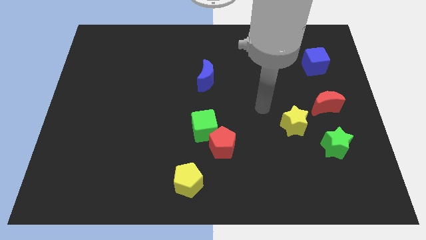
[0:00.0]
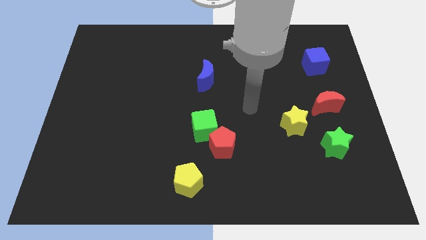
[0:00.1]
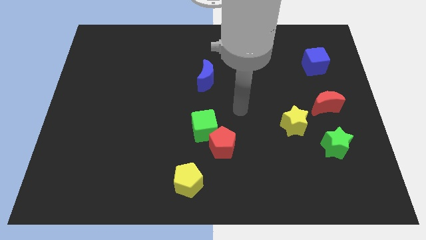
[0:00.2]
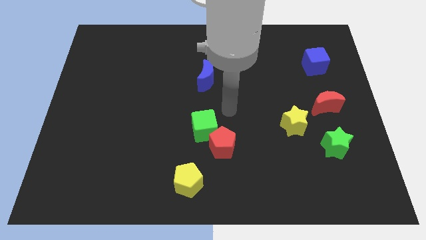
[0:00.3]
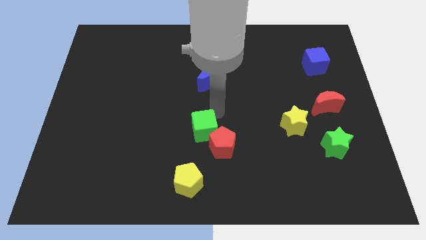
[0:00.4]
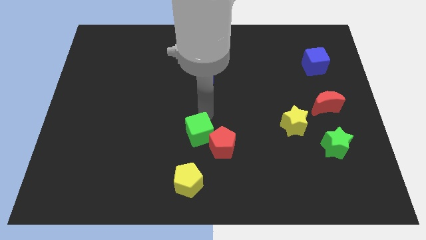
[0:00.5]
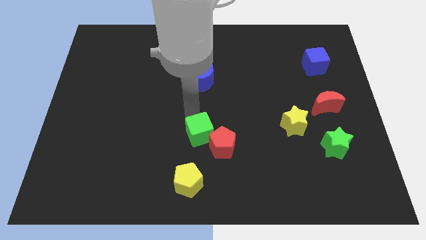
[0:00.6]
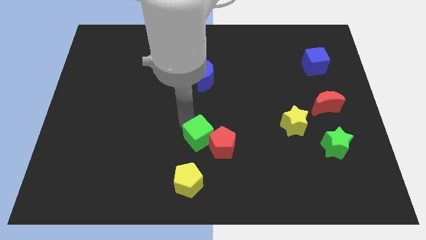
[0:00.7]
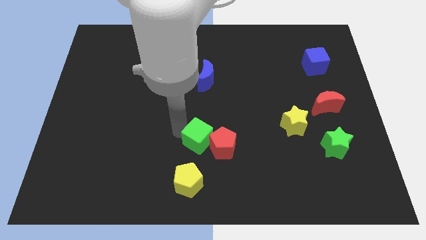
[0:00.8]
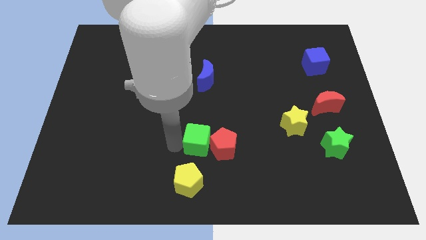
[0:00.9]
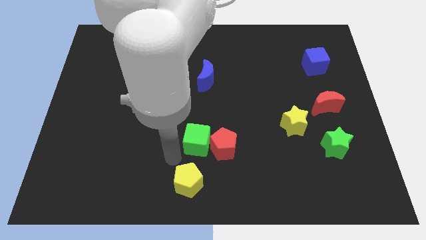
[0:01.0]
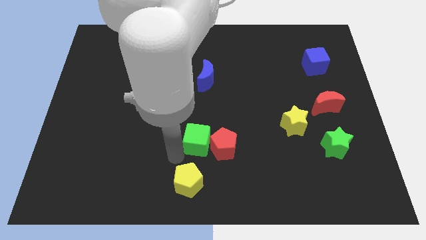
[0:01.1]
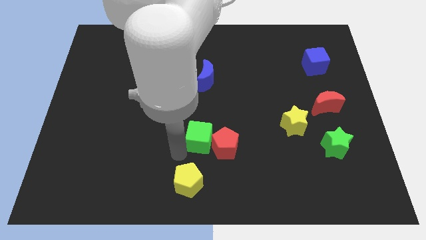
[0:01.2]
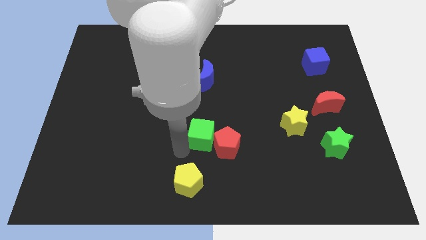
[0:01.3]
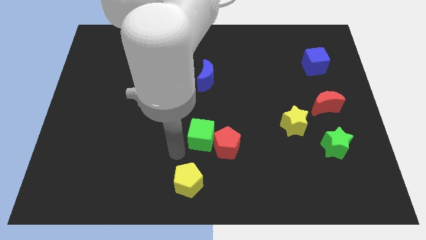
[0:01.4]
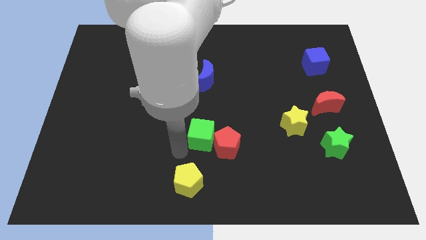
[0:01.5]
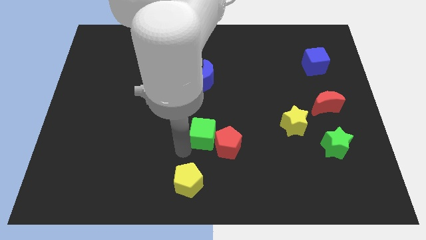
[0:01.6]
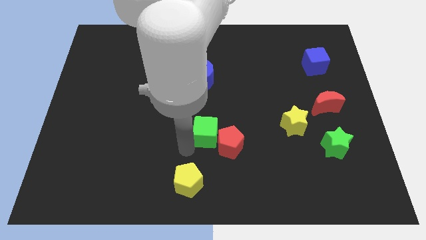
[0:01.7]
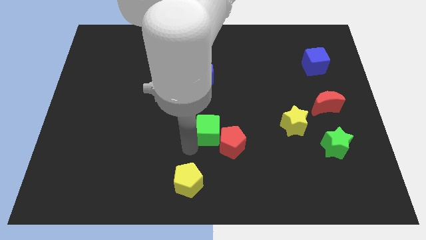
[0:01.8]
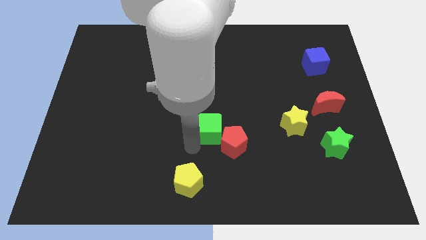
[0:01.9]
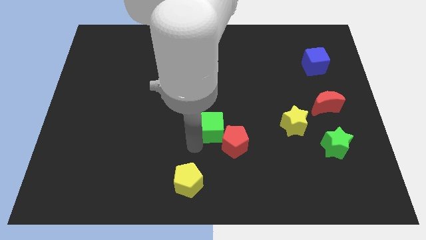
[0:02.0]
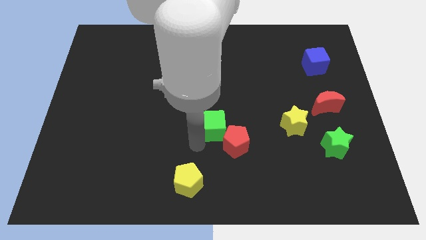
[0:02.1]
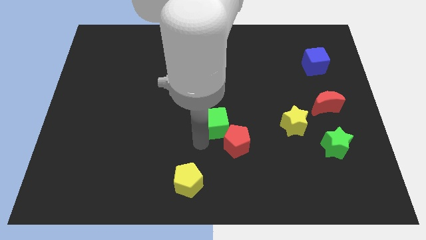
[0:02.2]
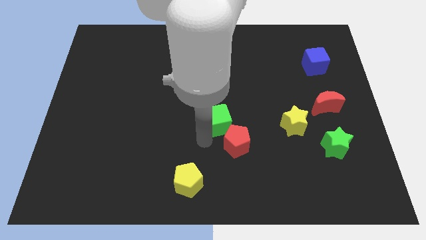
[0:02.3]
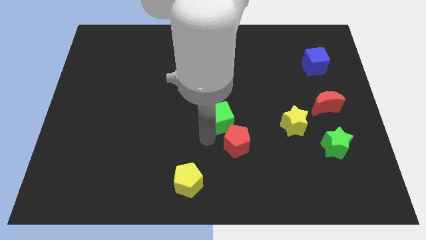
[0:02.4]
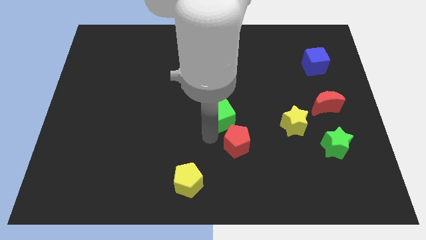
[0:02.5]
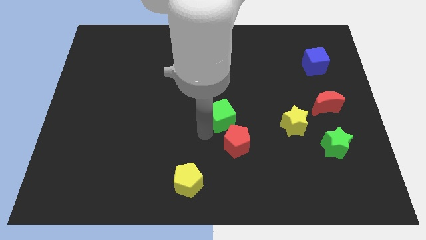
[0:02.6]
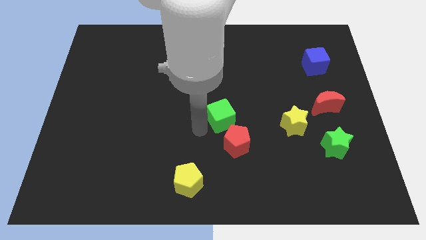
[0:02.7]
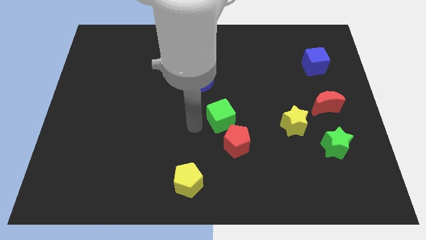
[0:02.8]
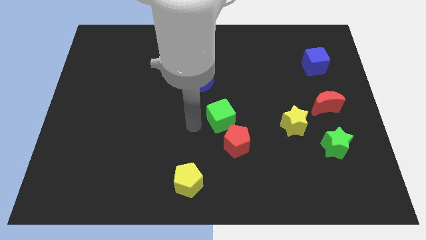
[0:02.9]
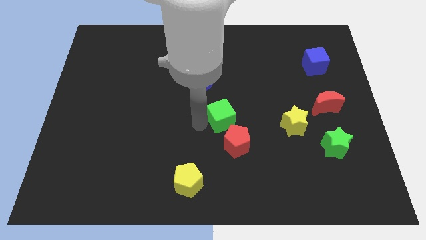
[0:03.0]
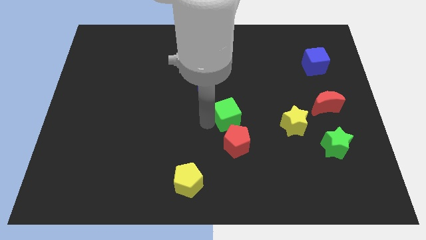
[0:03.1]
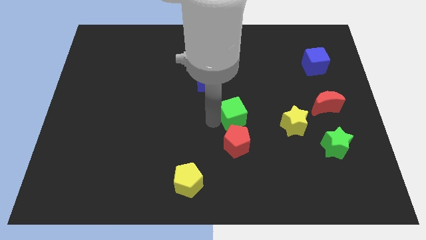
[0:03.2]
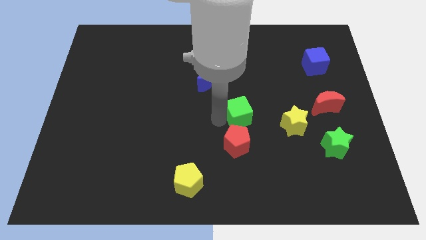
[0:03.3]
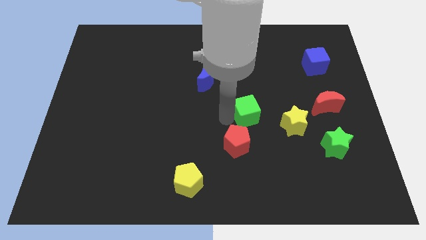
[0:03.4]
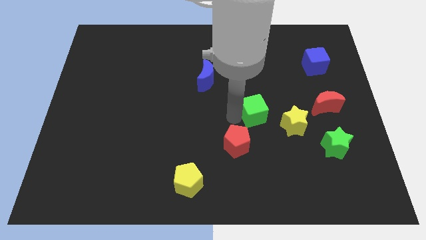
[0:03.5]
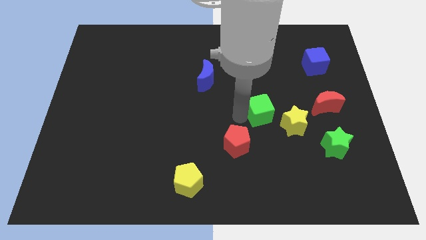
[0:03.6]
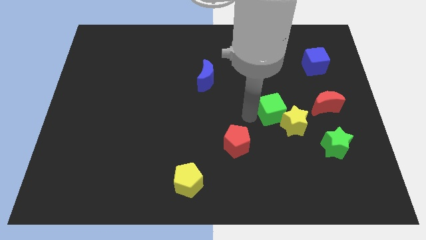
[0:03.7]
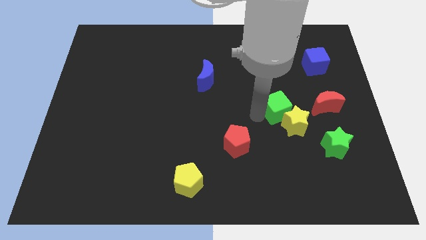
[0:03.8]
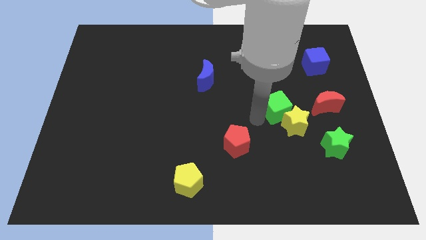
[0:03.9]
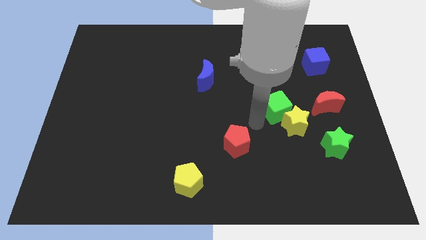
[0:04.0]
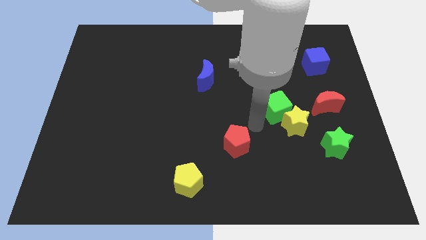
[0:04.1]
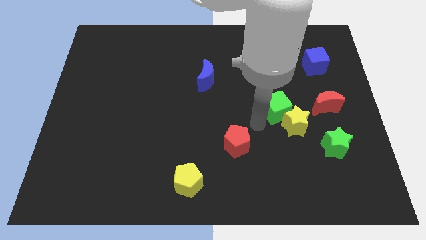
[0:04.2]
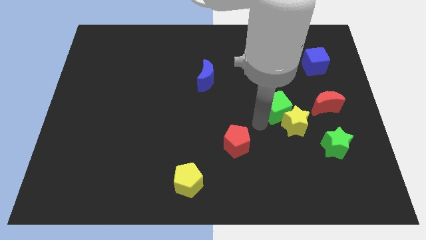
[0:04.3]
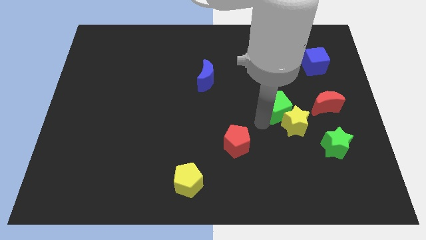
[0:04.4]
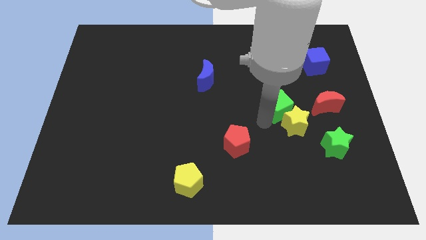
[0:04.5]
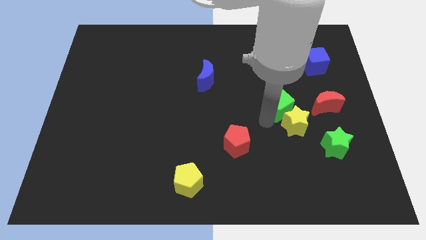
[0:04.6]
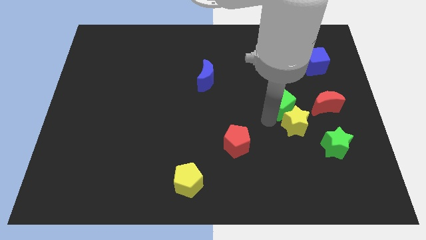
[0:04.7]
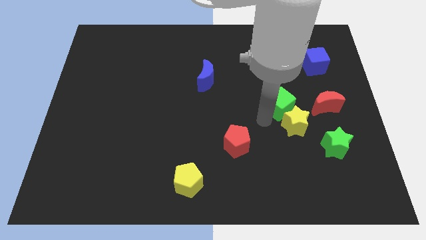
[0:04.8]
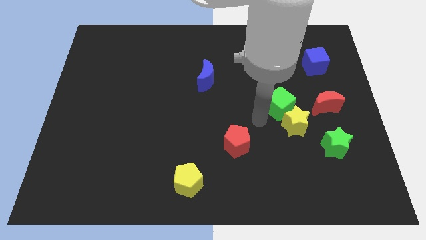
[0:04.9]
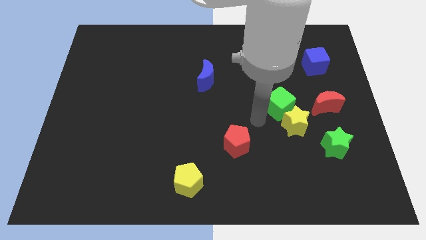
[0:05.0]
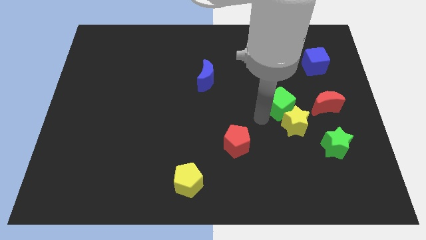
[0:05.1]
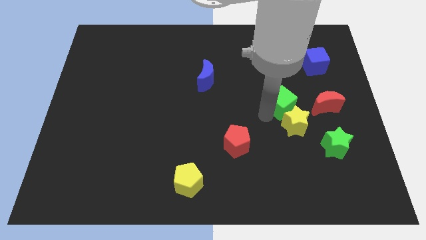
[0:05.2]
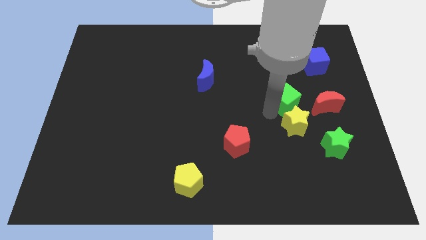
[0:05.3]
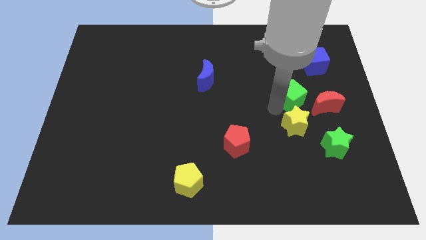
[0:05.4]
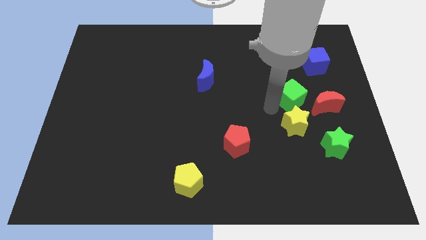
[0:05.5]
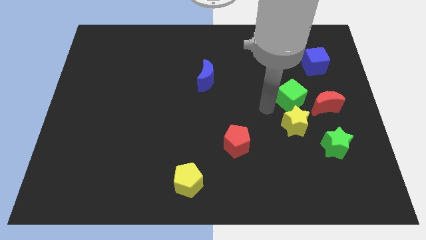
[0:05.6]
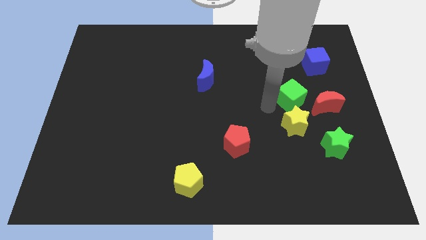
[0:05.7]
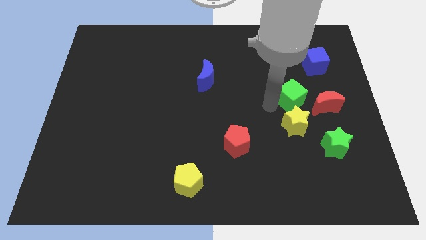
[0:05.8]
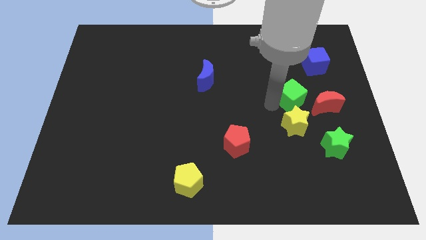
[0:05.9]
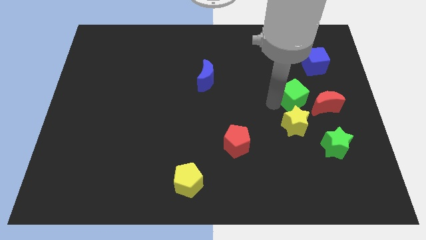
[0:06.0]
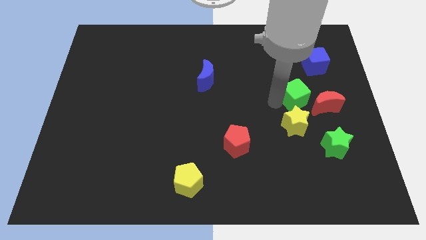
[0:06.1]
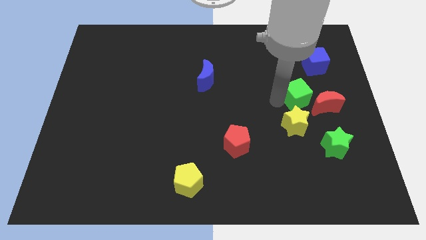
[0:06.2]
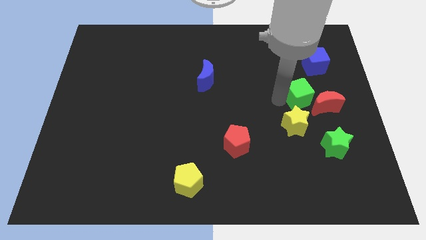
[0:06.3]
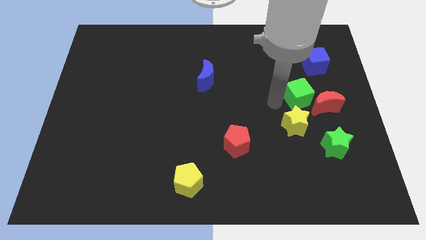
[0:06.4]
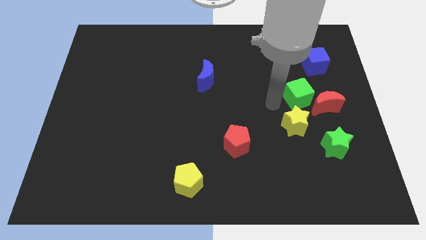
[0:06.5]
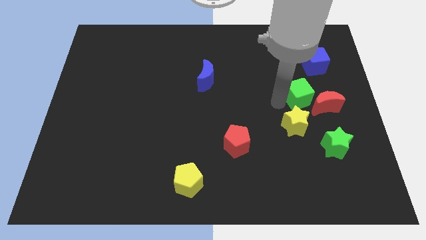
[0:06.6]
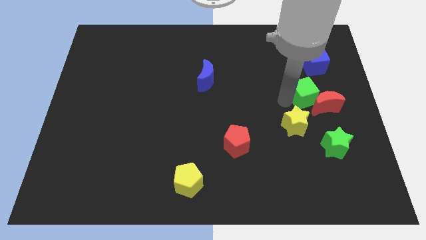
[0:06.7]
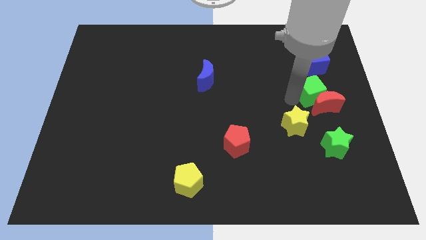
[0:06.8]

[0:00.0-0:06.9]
move the green cube to the top side of the green star
